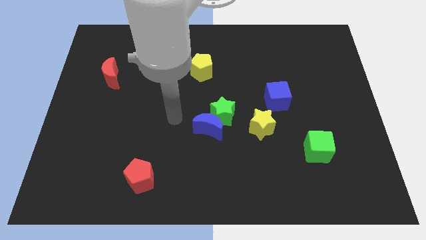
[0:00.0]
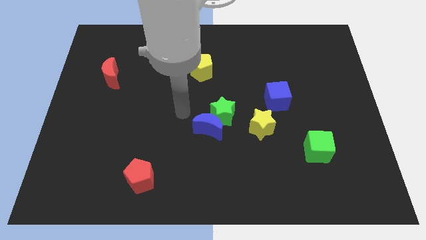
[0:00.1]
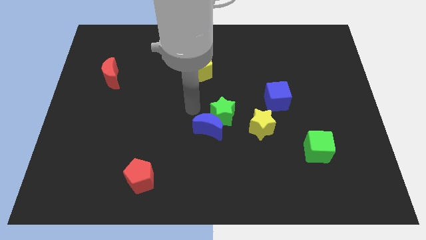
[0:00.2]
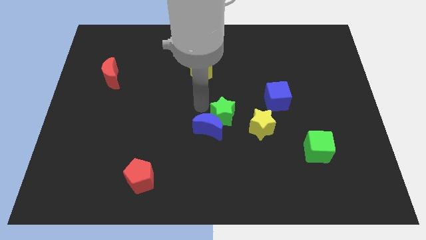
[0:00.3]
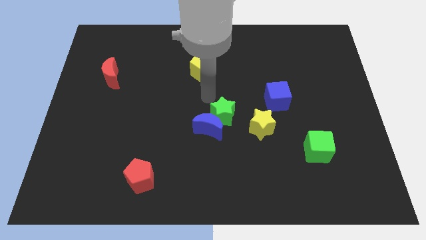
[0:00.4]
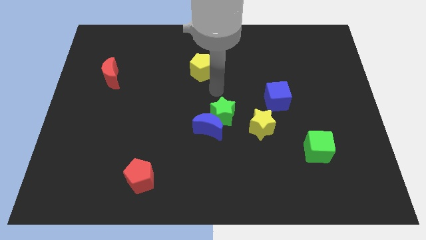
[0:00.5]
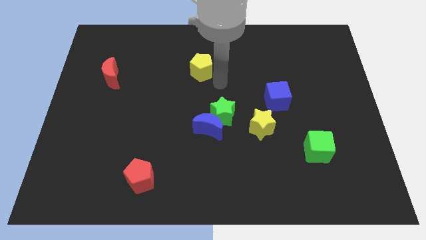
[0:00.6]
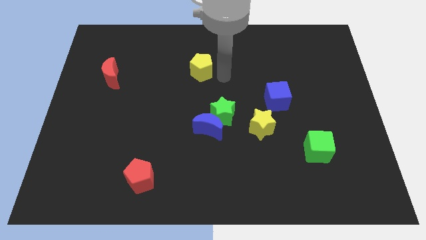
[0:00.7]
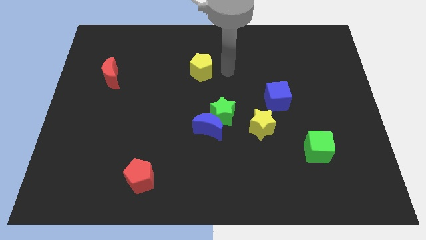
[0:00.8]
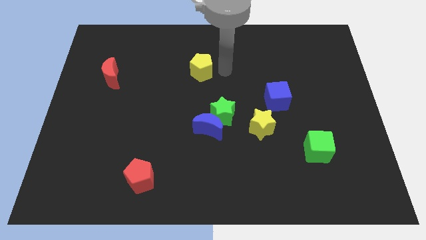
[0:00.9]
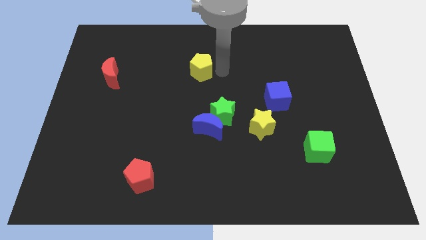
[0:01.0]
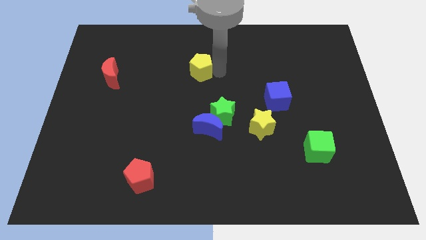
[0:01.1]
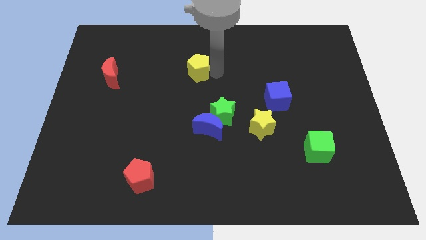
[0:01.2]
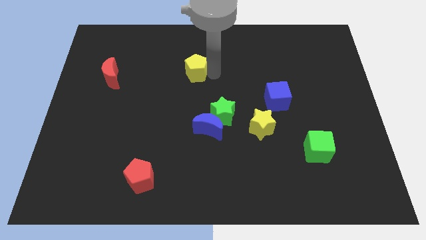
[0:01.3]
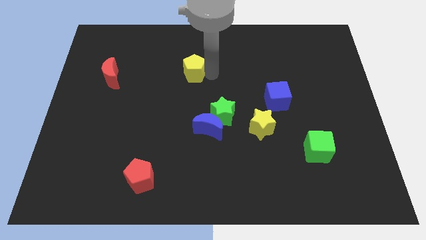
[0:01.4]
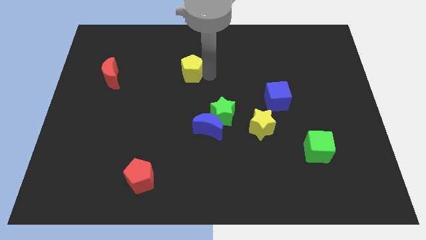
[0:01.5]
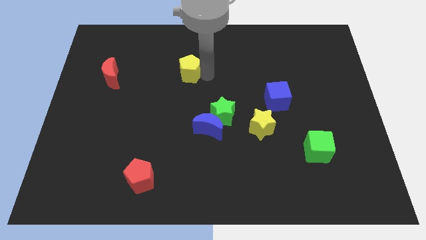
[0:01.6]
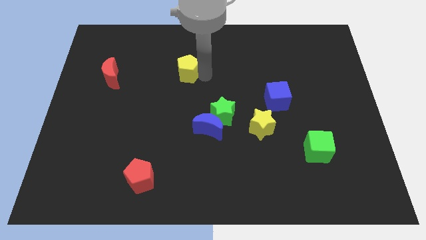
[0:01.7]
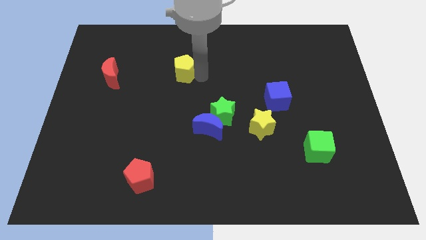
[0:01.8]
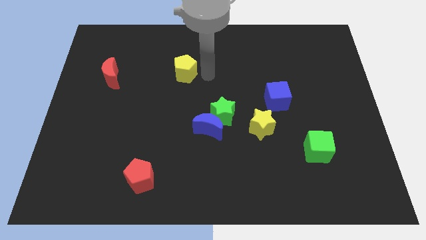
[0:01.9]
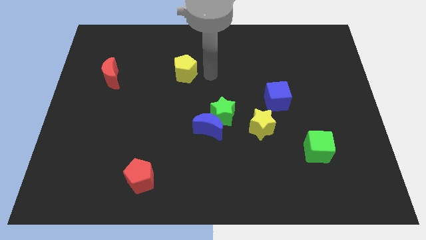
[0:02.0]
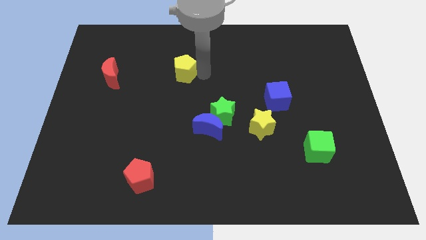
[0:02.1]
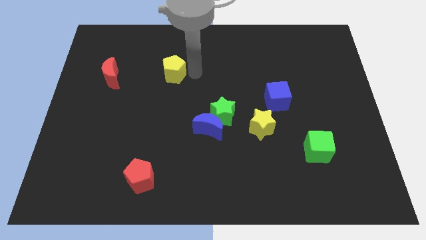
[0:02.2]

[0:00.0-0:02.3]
slide the yellow pentagon left a little bit

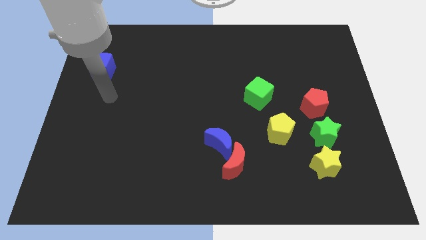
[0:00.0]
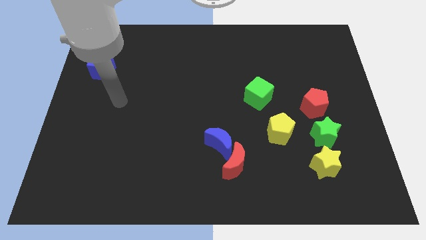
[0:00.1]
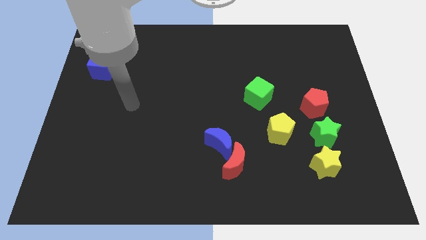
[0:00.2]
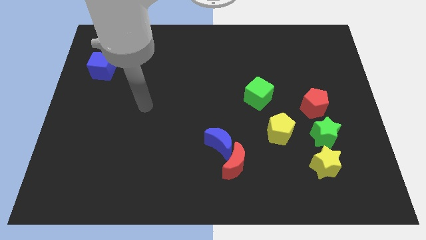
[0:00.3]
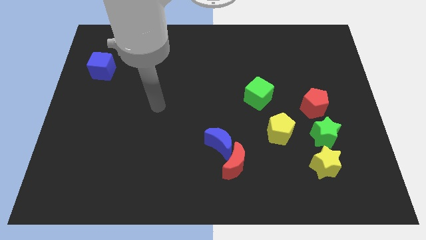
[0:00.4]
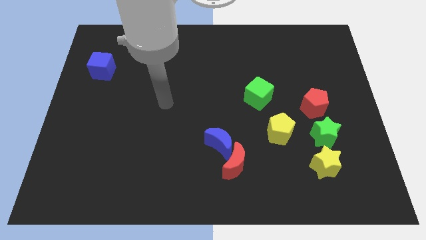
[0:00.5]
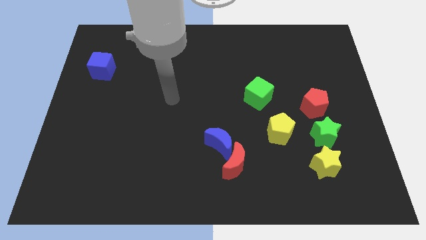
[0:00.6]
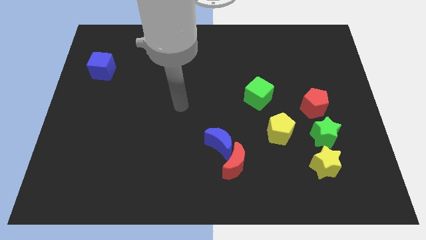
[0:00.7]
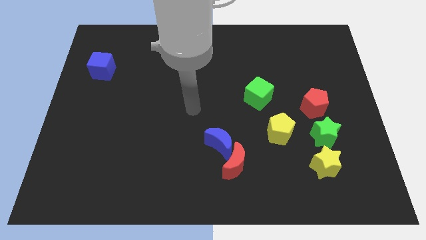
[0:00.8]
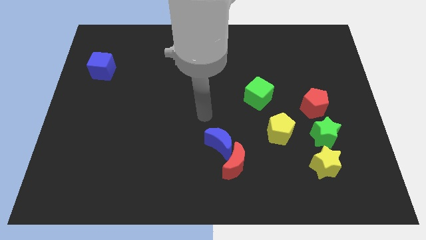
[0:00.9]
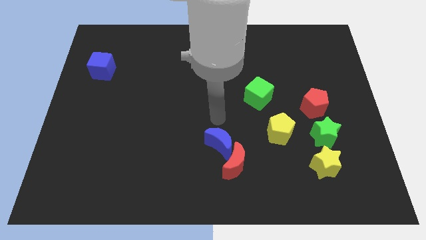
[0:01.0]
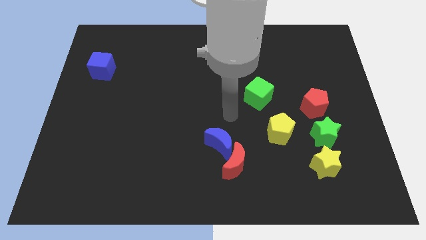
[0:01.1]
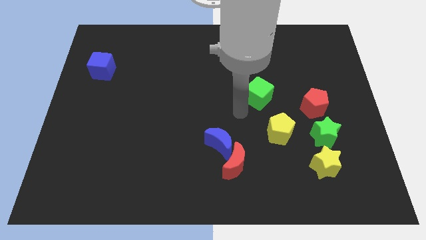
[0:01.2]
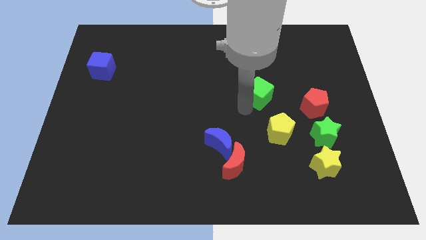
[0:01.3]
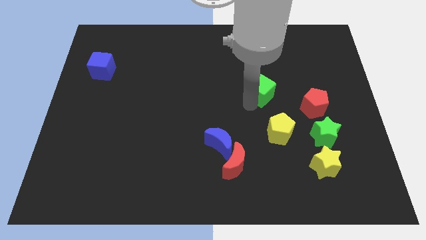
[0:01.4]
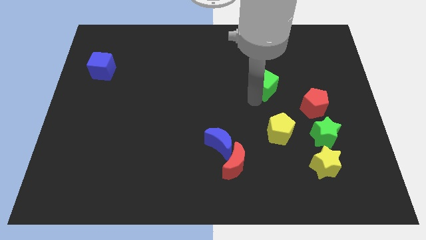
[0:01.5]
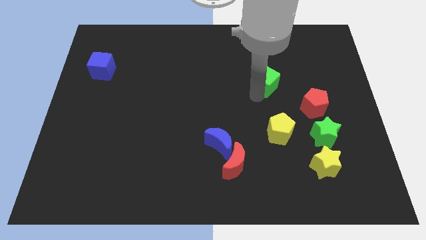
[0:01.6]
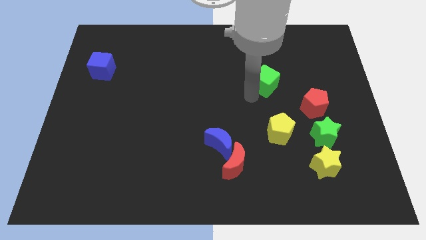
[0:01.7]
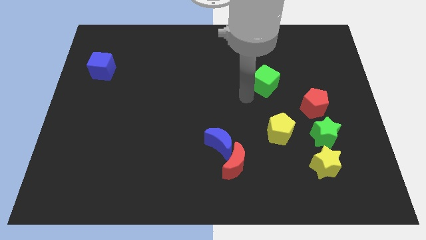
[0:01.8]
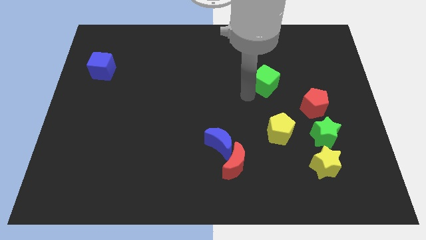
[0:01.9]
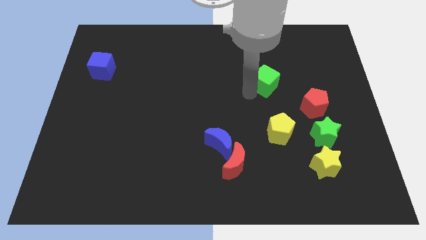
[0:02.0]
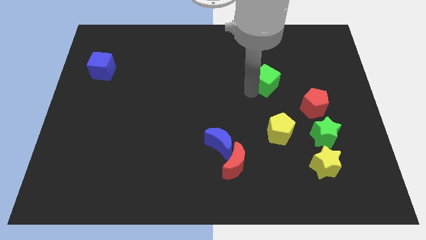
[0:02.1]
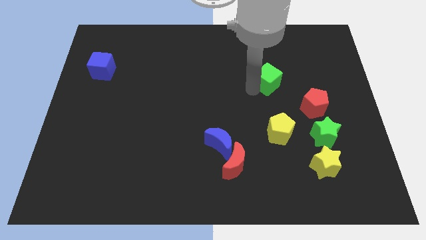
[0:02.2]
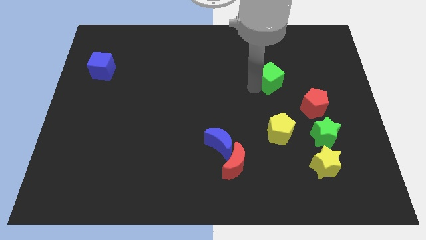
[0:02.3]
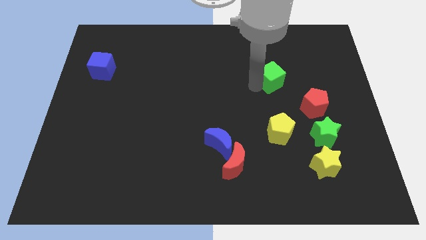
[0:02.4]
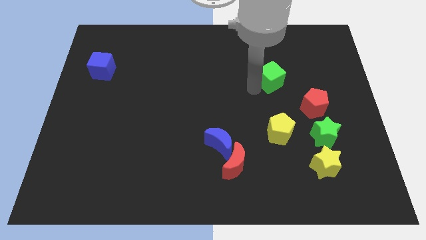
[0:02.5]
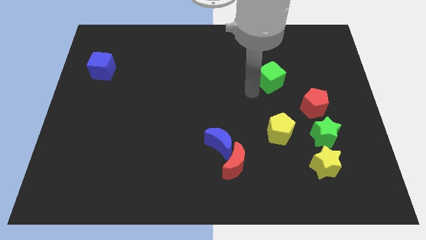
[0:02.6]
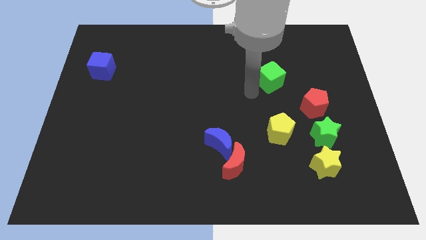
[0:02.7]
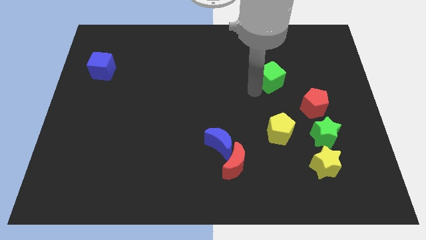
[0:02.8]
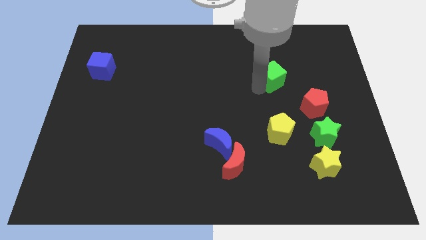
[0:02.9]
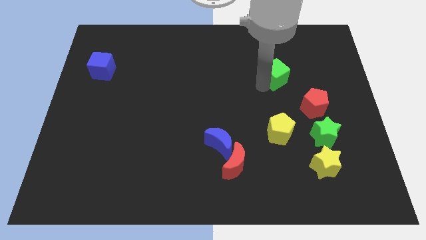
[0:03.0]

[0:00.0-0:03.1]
move the green cube up and then to the right somewhat

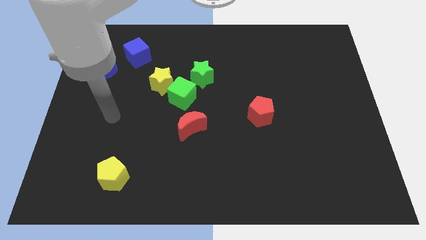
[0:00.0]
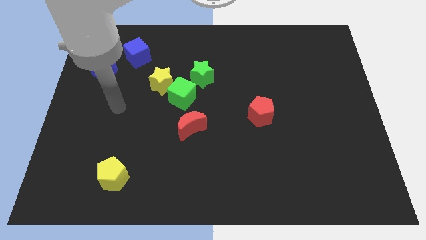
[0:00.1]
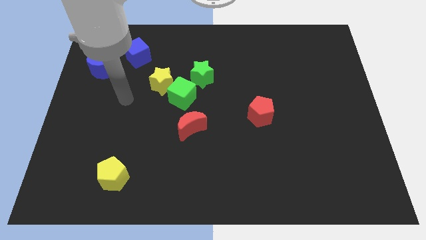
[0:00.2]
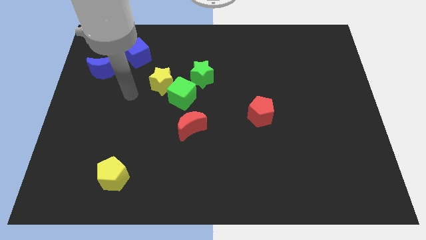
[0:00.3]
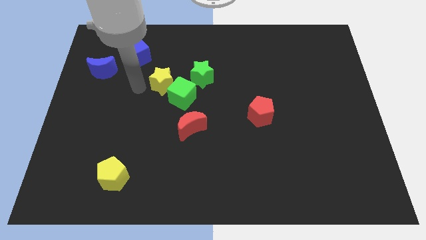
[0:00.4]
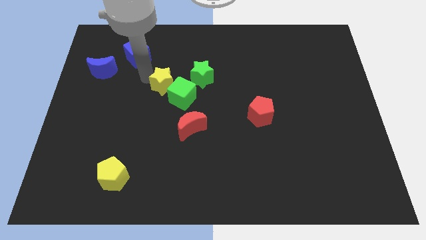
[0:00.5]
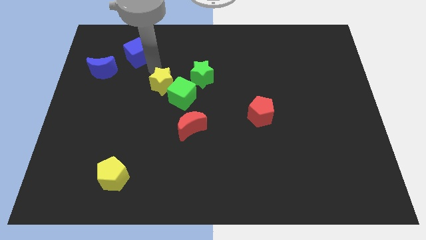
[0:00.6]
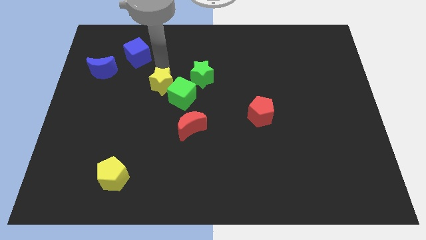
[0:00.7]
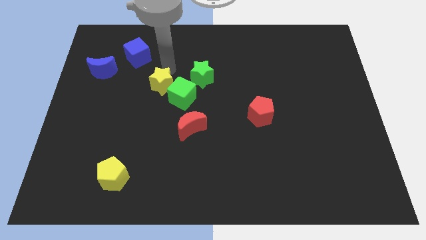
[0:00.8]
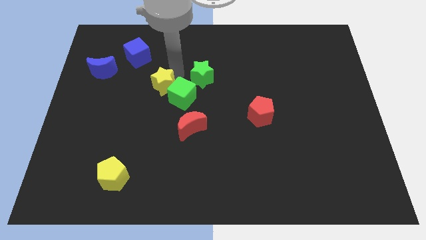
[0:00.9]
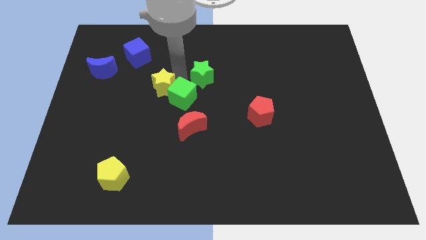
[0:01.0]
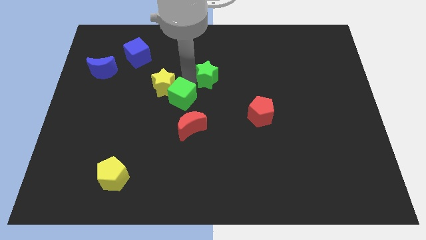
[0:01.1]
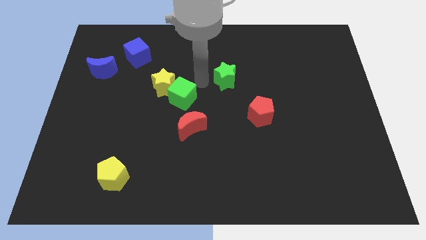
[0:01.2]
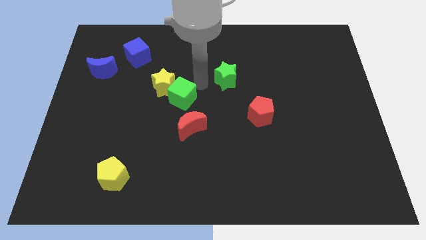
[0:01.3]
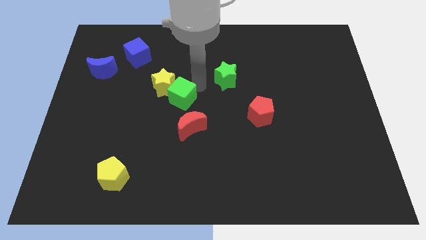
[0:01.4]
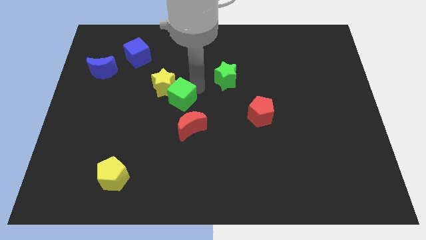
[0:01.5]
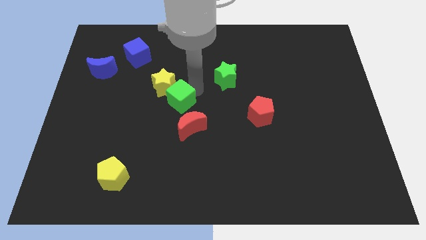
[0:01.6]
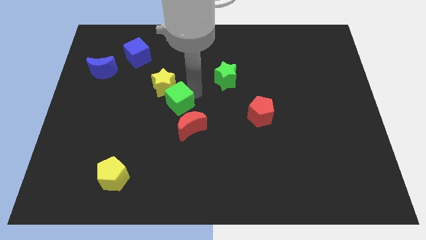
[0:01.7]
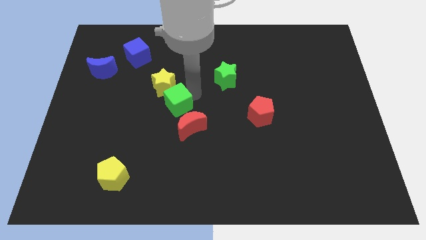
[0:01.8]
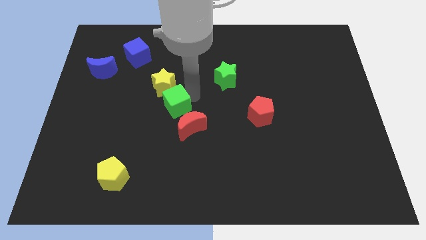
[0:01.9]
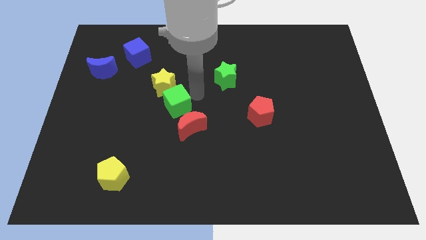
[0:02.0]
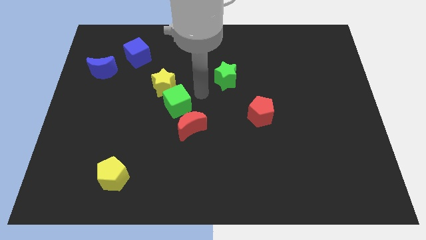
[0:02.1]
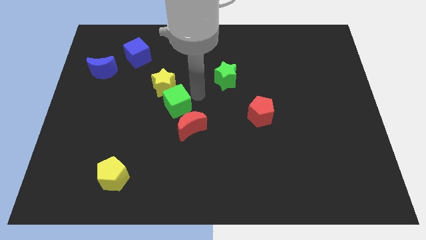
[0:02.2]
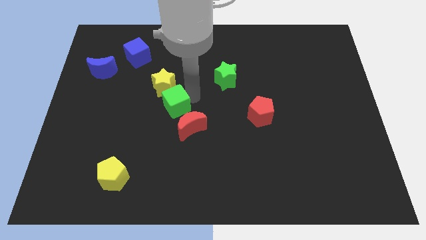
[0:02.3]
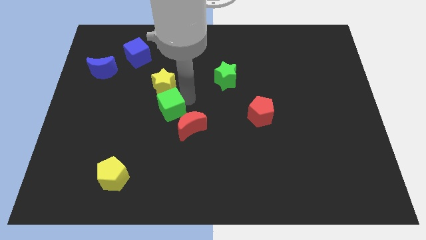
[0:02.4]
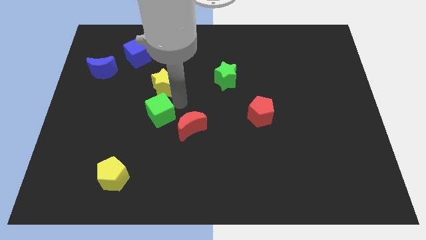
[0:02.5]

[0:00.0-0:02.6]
move the green cube slightly downwards and then left
